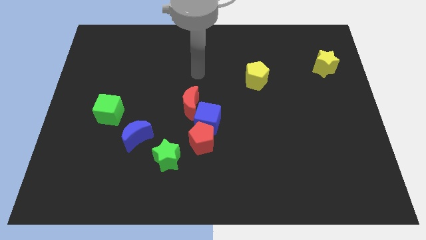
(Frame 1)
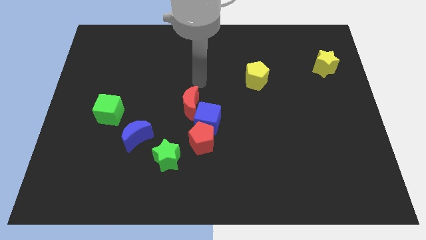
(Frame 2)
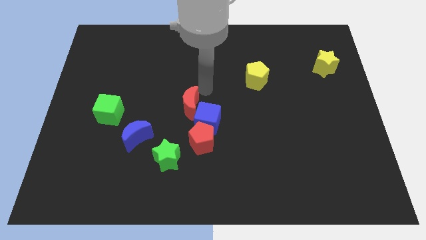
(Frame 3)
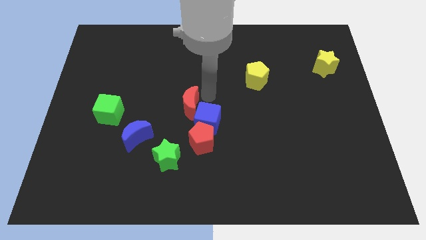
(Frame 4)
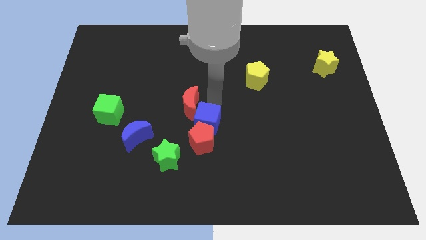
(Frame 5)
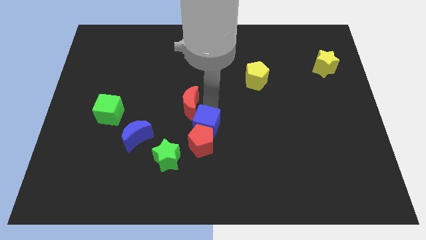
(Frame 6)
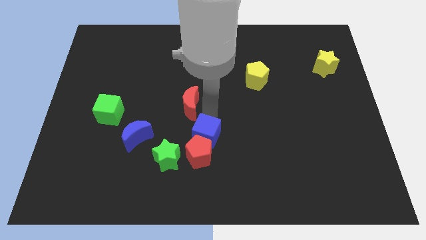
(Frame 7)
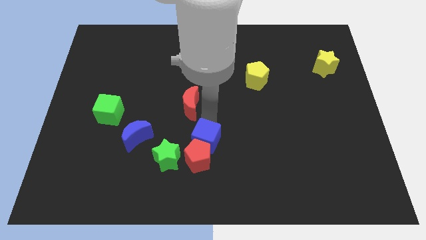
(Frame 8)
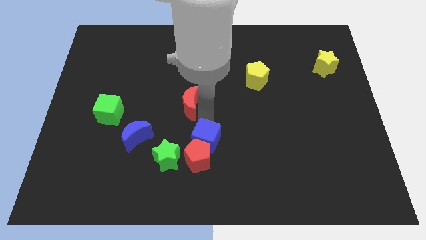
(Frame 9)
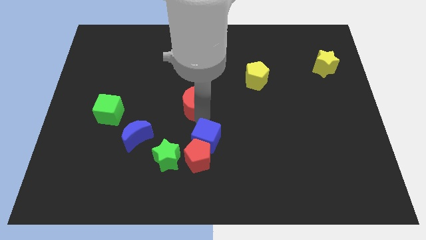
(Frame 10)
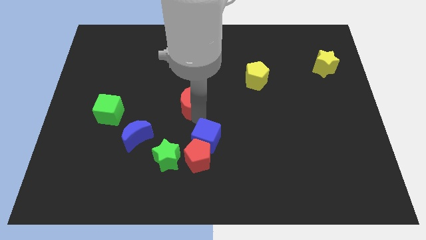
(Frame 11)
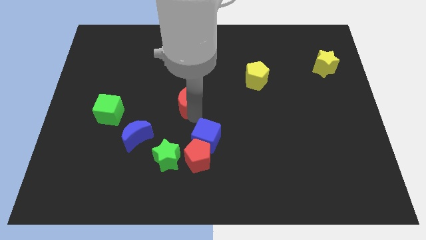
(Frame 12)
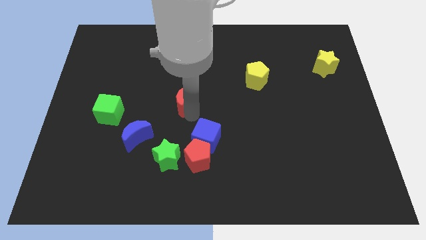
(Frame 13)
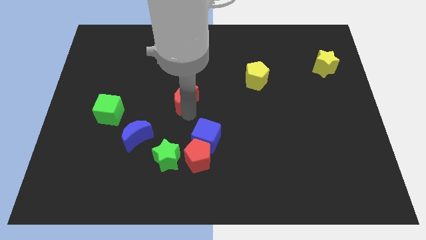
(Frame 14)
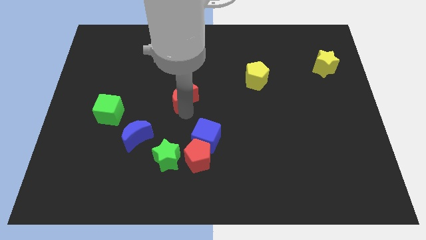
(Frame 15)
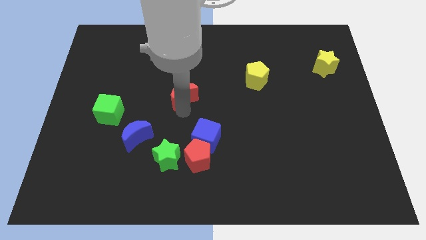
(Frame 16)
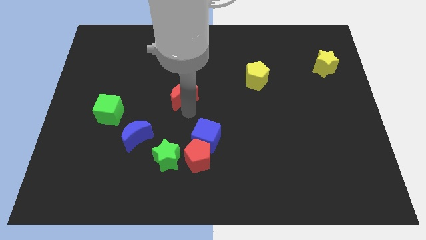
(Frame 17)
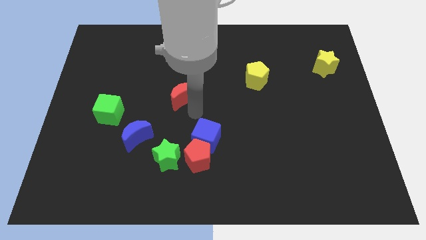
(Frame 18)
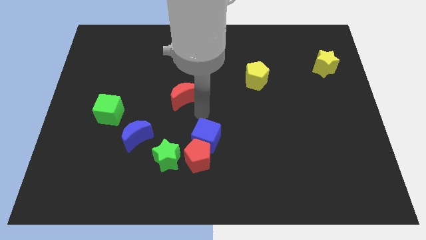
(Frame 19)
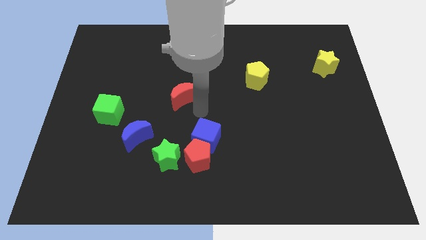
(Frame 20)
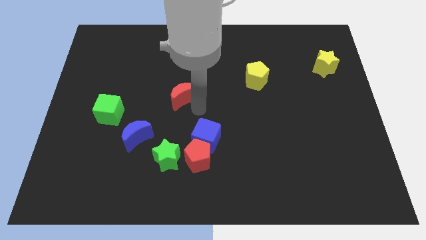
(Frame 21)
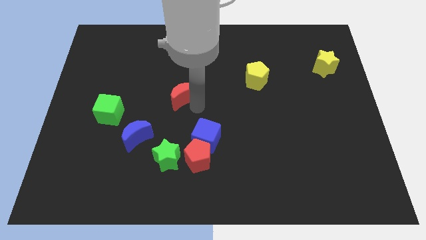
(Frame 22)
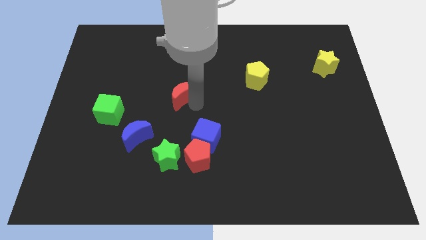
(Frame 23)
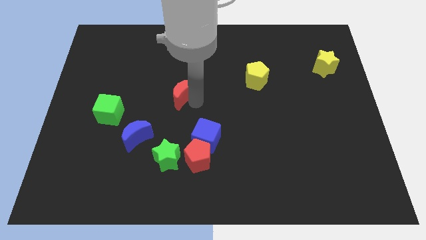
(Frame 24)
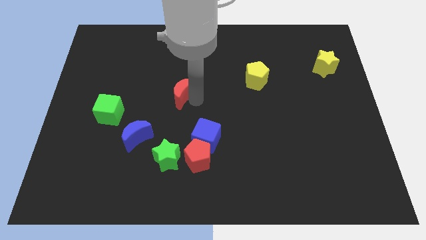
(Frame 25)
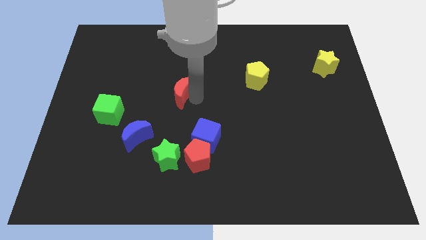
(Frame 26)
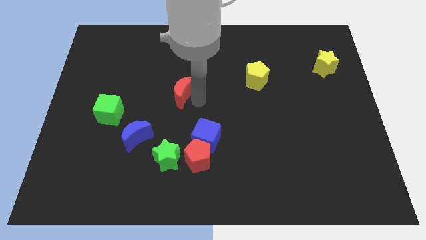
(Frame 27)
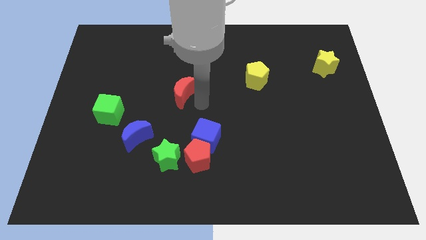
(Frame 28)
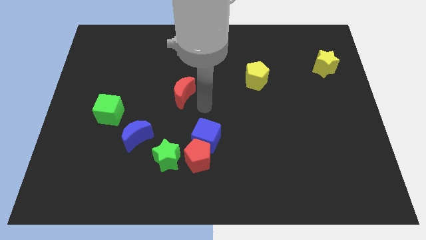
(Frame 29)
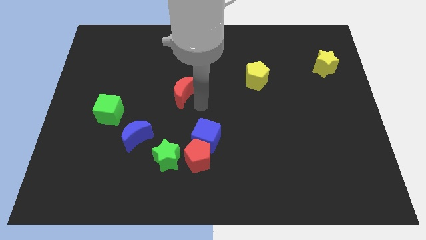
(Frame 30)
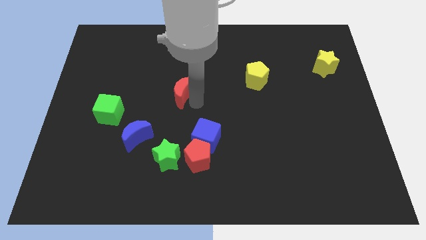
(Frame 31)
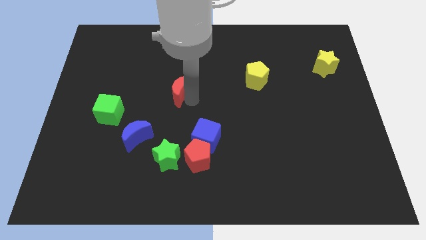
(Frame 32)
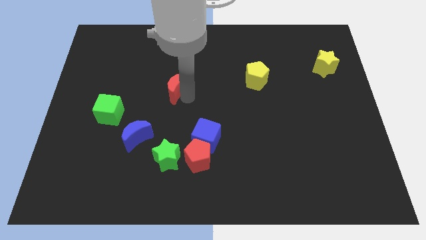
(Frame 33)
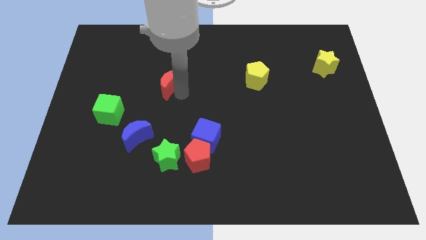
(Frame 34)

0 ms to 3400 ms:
slightly slide the red moon upwards and then left

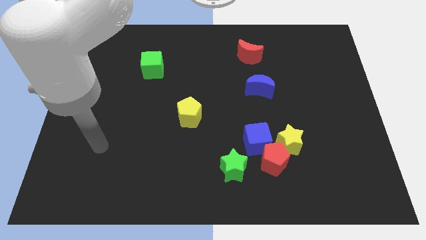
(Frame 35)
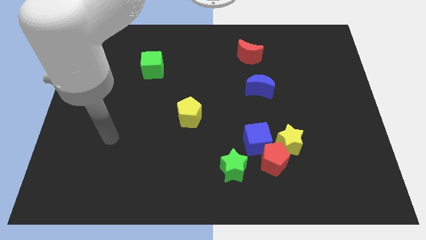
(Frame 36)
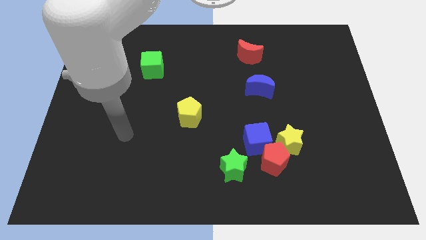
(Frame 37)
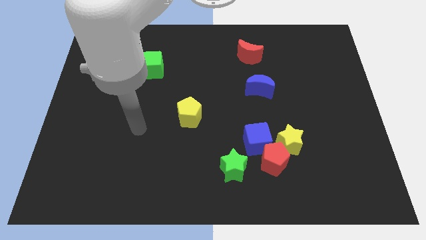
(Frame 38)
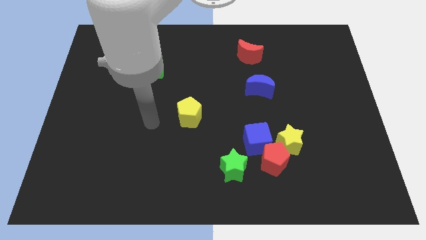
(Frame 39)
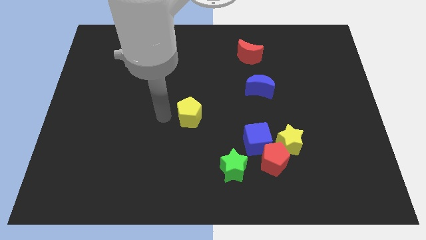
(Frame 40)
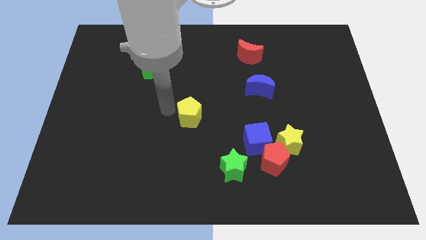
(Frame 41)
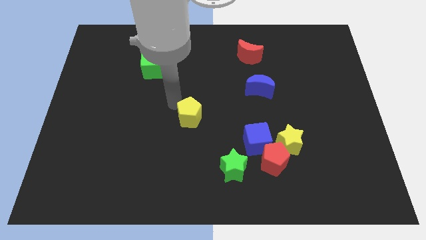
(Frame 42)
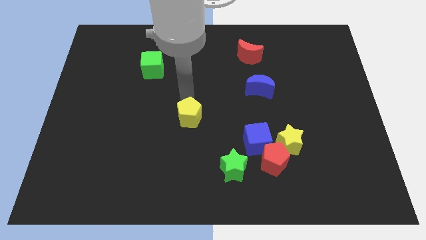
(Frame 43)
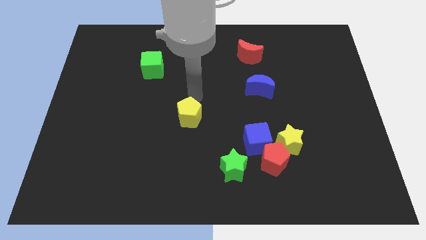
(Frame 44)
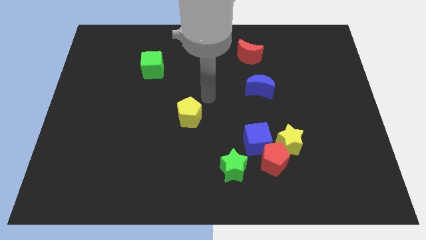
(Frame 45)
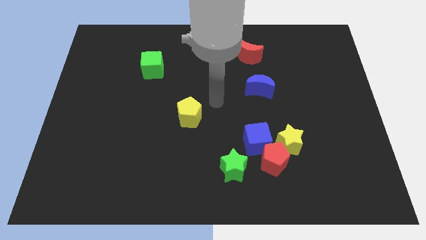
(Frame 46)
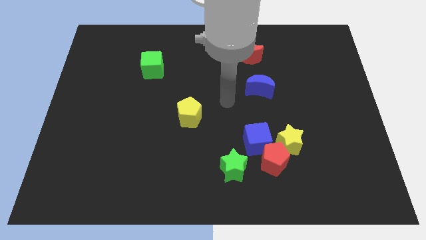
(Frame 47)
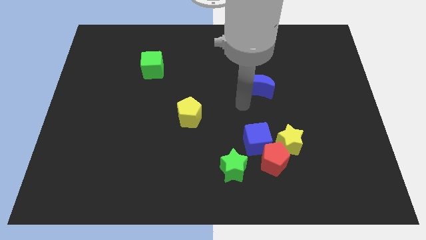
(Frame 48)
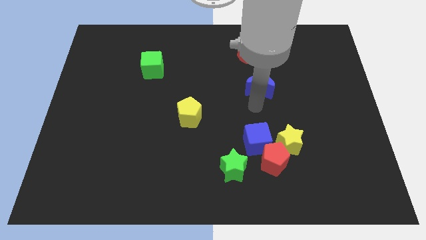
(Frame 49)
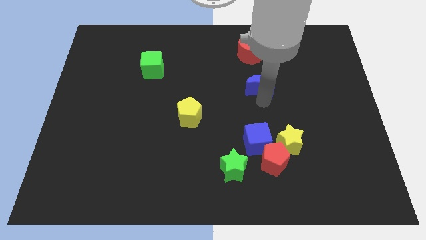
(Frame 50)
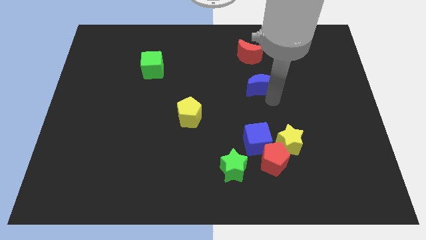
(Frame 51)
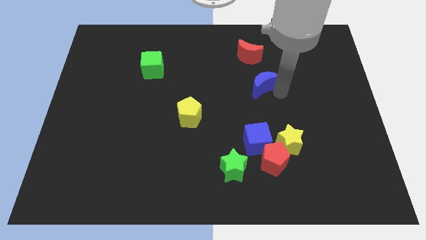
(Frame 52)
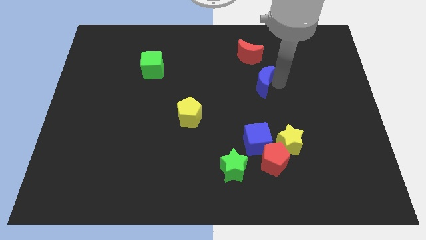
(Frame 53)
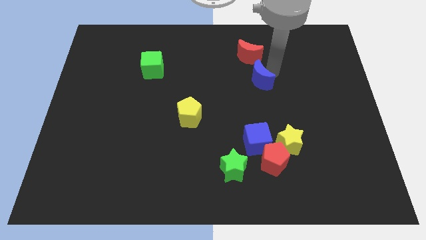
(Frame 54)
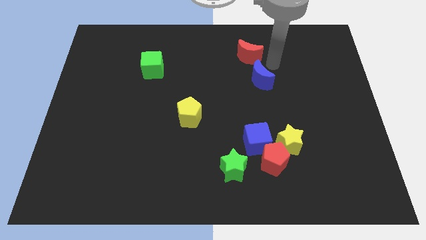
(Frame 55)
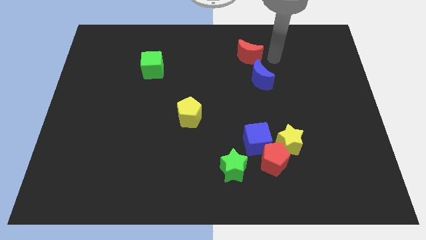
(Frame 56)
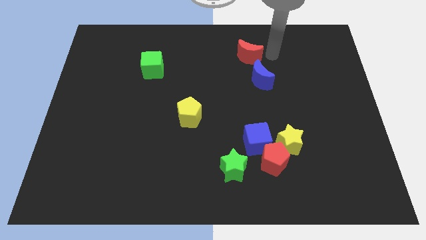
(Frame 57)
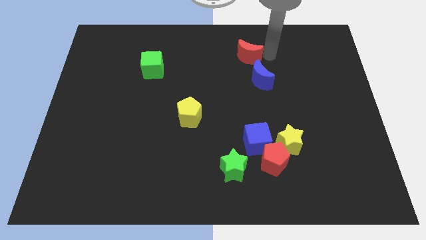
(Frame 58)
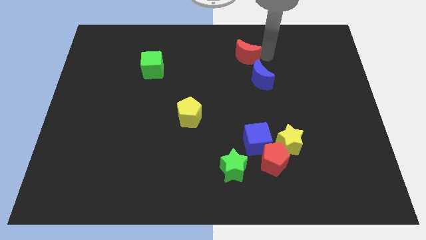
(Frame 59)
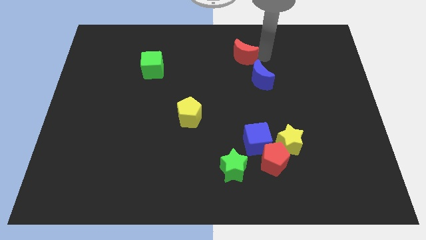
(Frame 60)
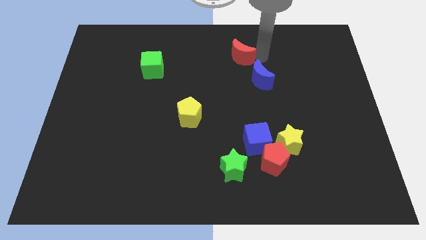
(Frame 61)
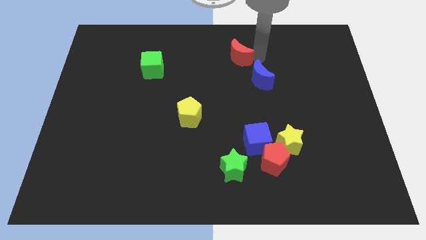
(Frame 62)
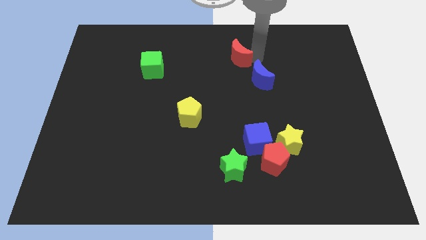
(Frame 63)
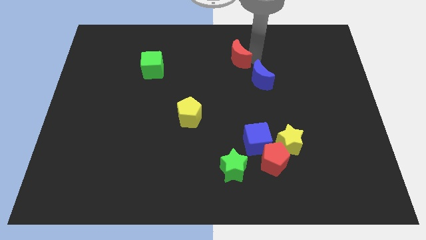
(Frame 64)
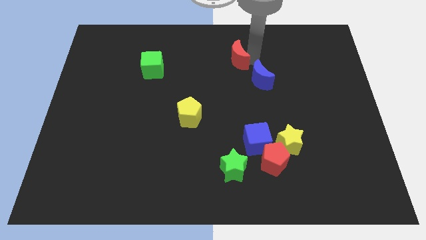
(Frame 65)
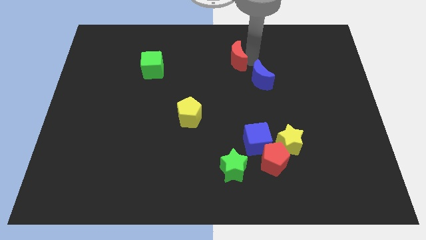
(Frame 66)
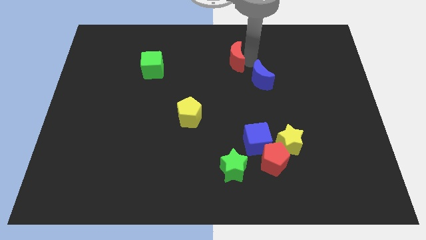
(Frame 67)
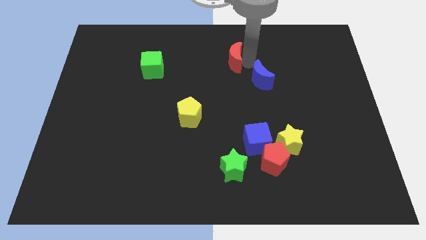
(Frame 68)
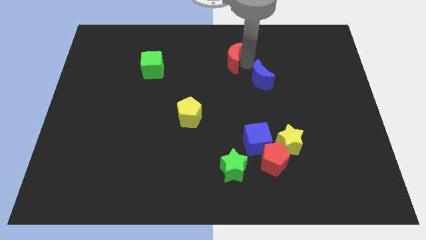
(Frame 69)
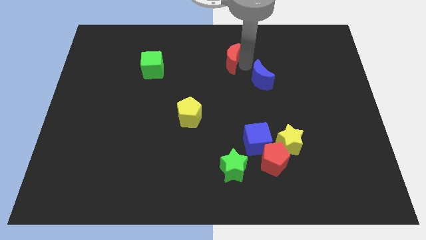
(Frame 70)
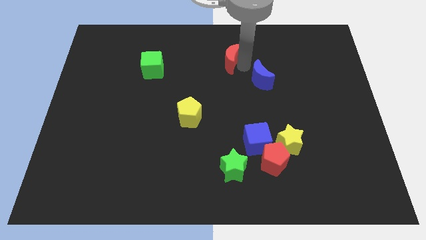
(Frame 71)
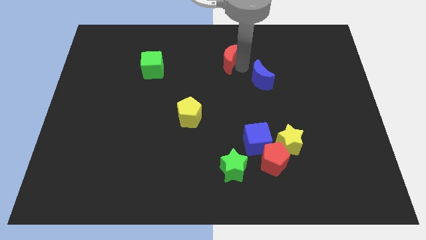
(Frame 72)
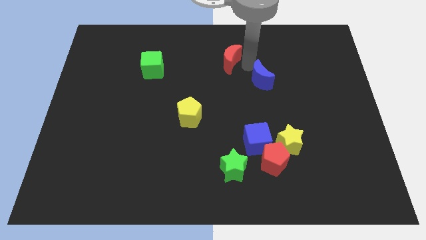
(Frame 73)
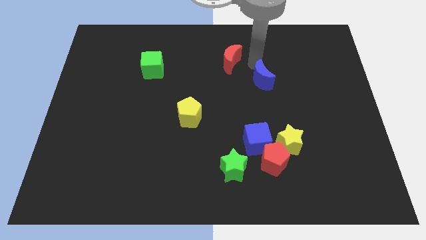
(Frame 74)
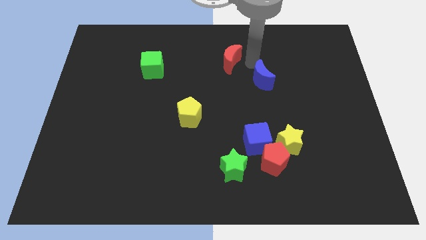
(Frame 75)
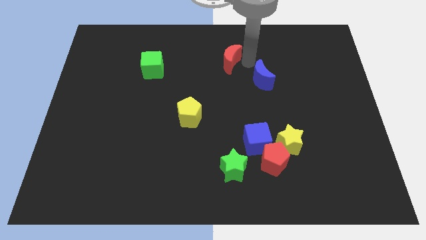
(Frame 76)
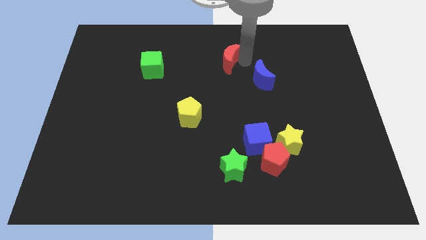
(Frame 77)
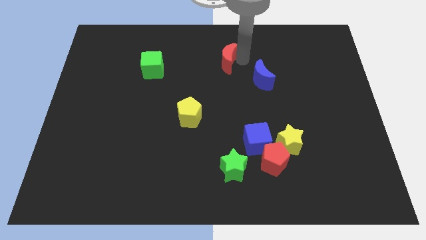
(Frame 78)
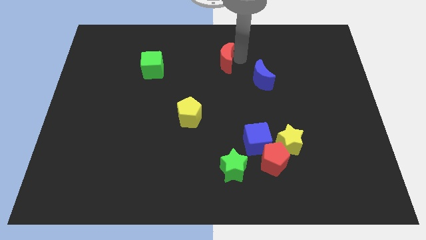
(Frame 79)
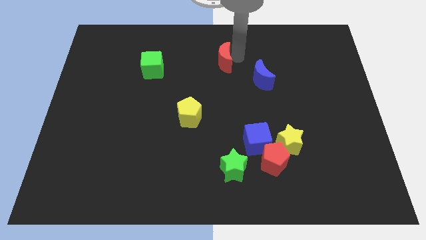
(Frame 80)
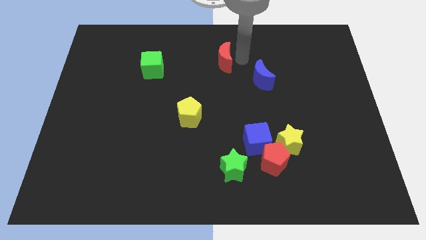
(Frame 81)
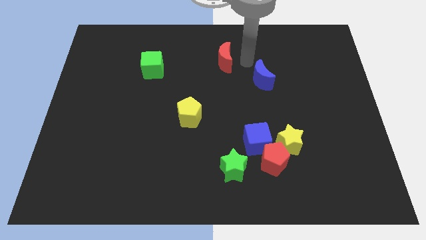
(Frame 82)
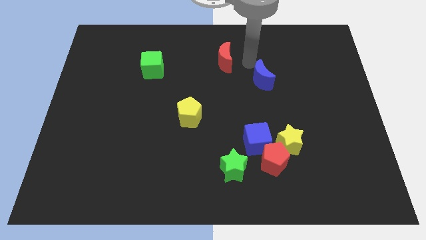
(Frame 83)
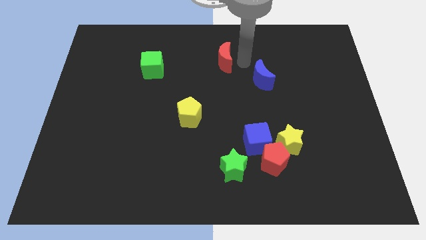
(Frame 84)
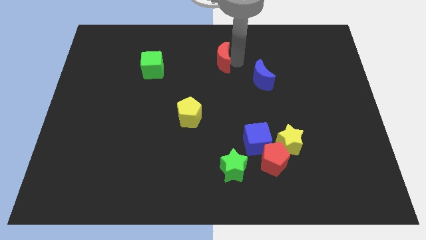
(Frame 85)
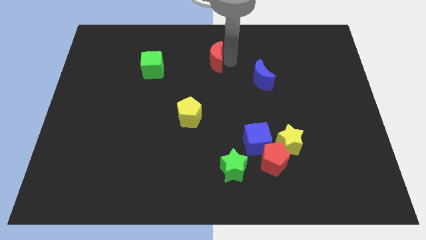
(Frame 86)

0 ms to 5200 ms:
slightly push the red moon to the left
